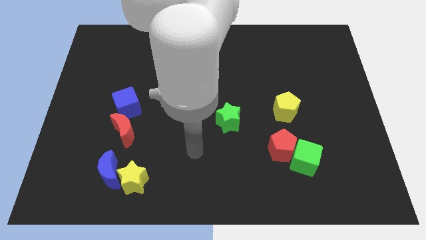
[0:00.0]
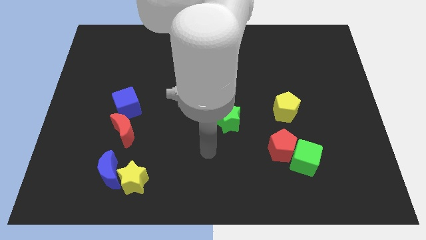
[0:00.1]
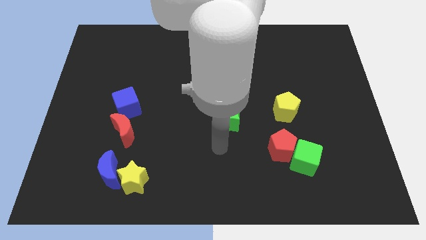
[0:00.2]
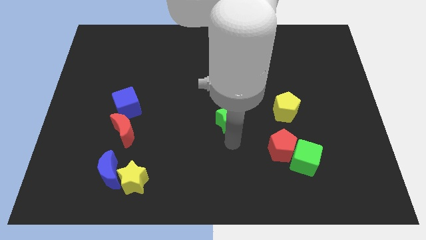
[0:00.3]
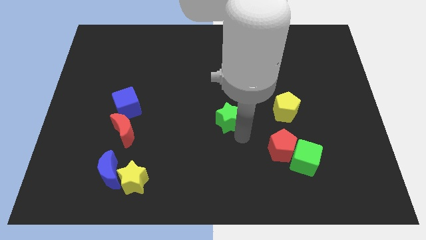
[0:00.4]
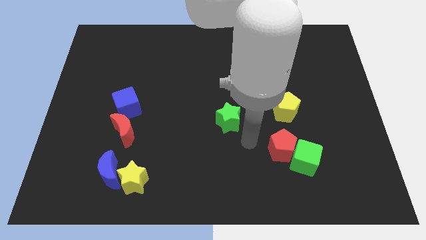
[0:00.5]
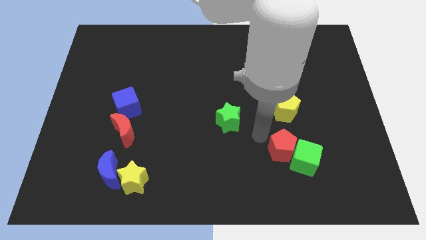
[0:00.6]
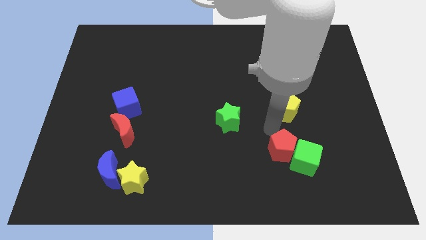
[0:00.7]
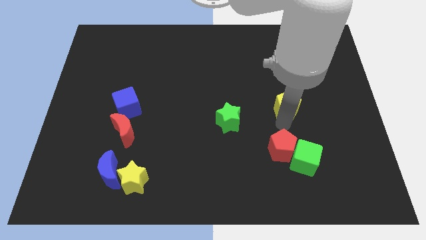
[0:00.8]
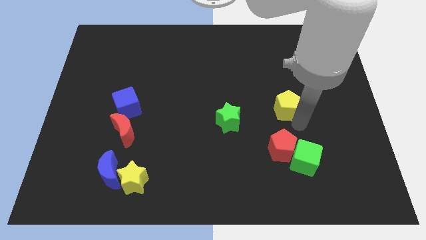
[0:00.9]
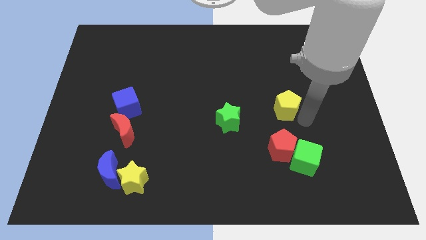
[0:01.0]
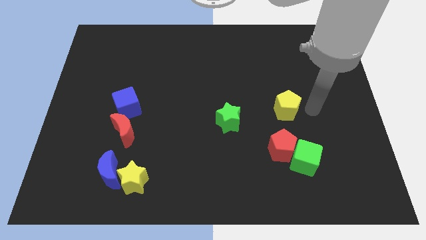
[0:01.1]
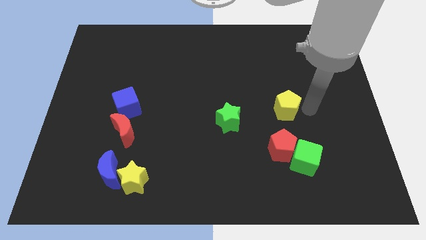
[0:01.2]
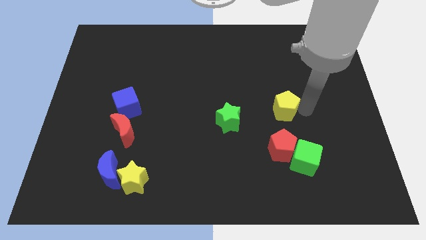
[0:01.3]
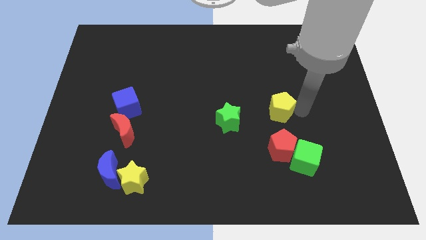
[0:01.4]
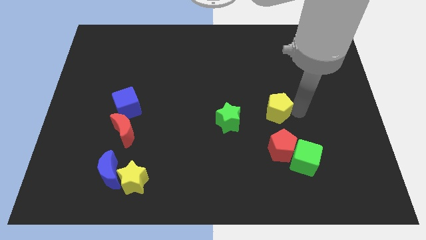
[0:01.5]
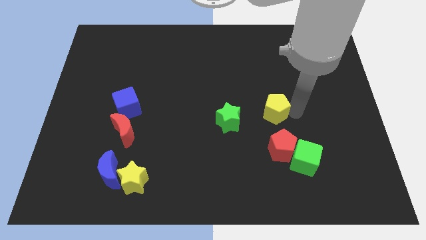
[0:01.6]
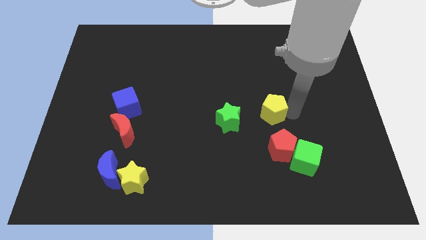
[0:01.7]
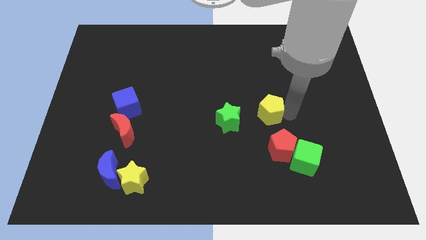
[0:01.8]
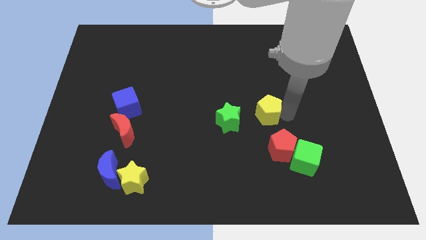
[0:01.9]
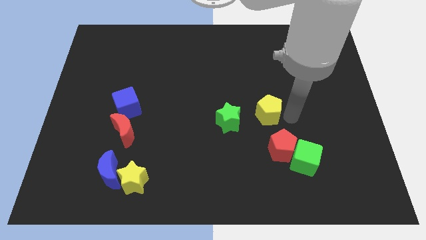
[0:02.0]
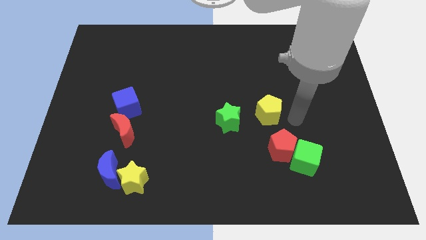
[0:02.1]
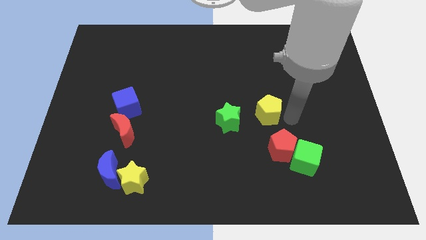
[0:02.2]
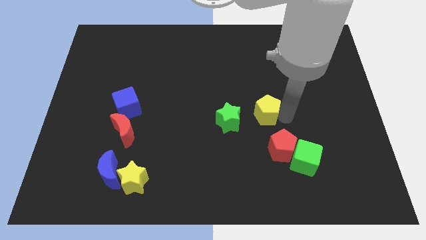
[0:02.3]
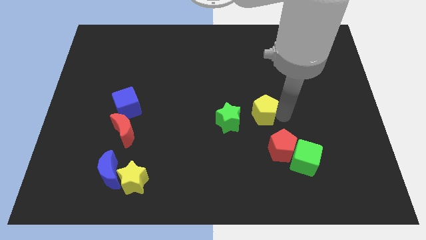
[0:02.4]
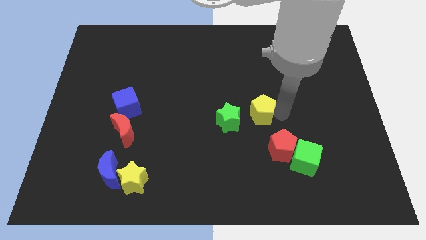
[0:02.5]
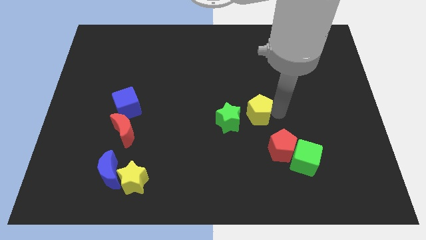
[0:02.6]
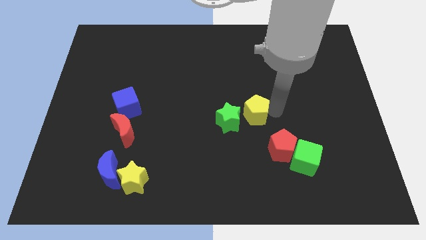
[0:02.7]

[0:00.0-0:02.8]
push the yellow pentagon a little bit to the left

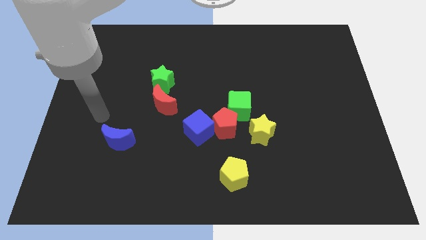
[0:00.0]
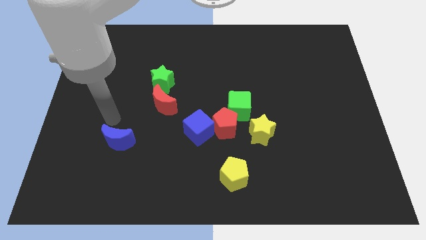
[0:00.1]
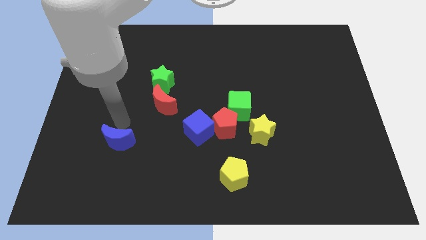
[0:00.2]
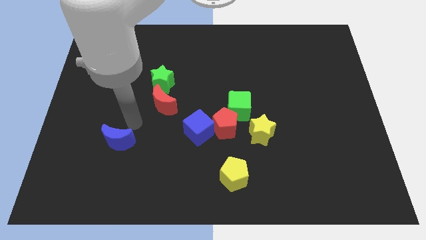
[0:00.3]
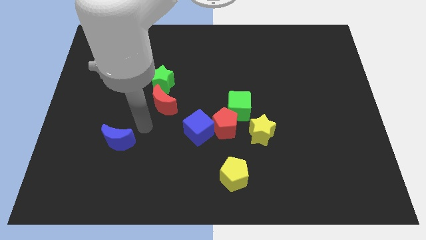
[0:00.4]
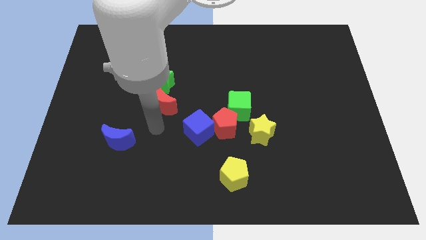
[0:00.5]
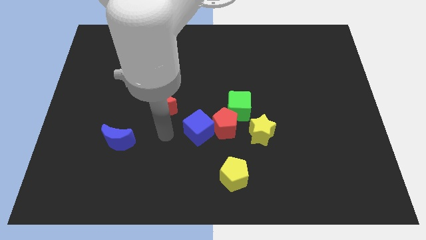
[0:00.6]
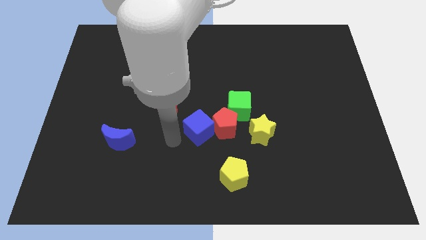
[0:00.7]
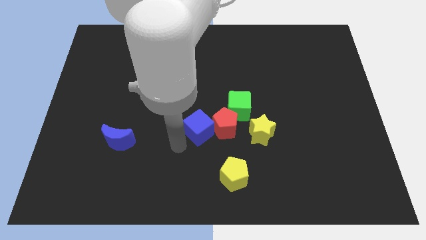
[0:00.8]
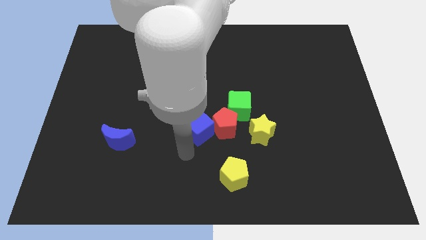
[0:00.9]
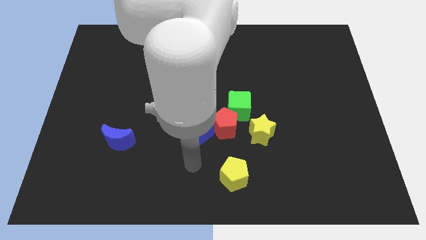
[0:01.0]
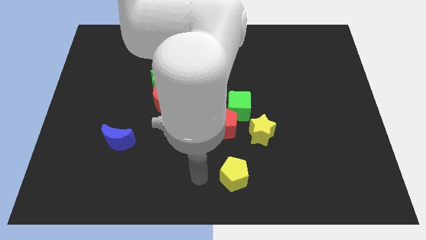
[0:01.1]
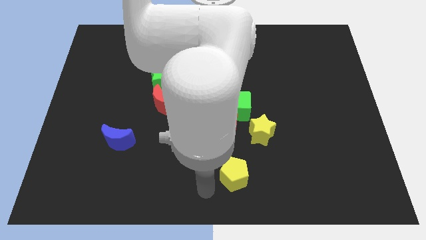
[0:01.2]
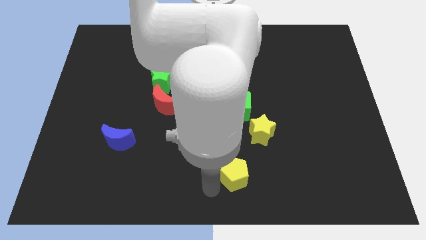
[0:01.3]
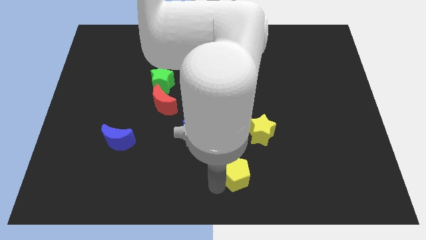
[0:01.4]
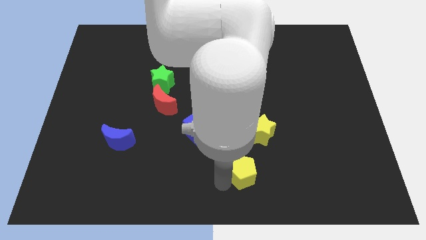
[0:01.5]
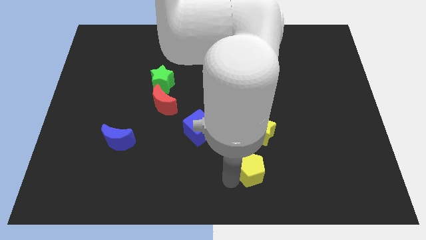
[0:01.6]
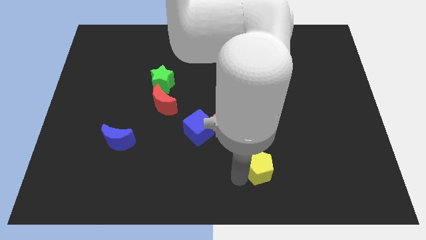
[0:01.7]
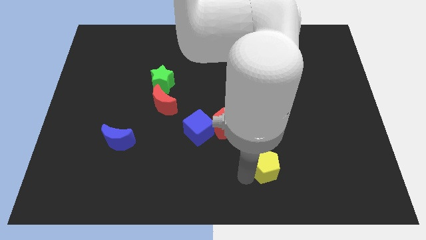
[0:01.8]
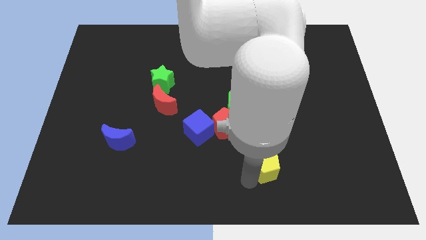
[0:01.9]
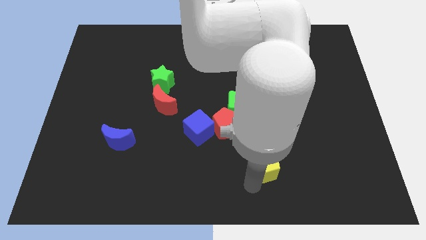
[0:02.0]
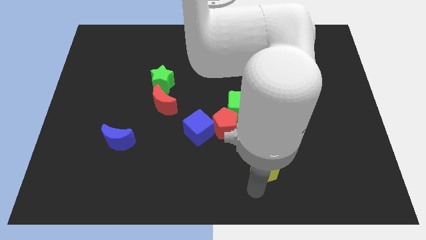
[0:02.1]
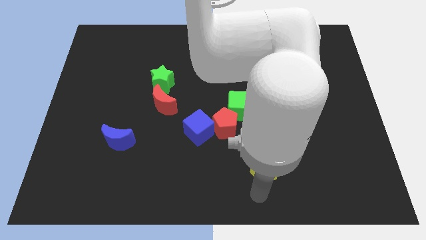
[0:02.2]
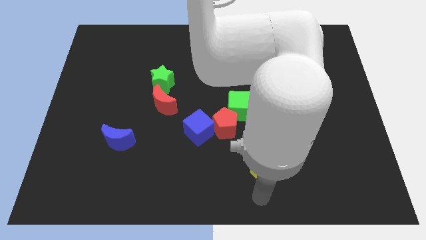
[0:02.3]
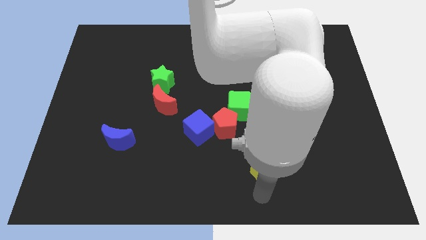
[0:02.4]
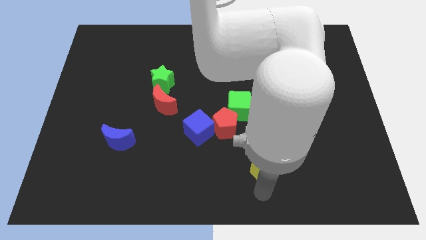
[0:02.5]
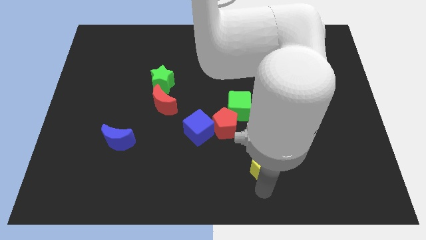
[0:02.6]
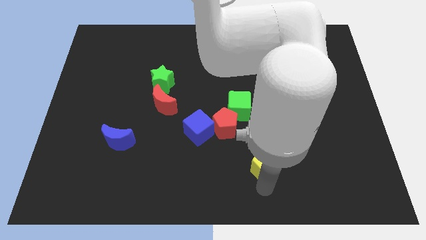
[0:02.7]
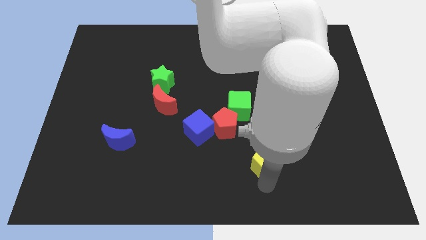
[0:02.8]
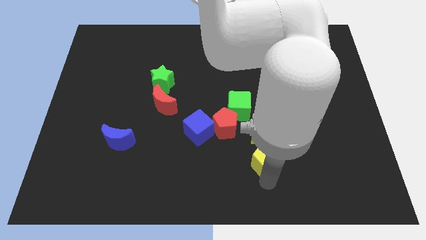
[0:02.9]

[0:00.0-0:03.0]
push the yellow pentagon somewhat up and to the right

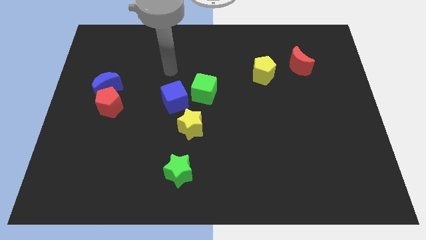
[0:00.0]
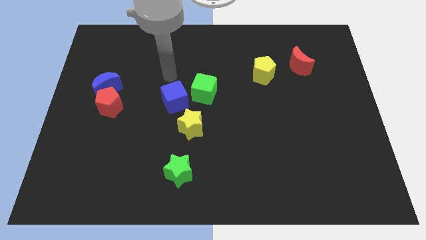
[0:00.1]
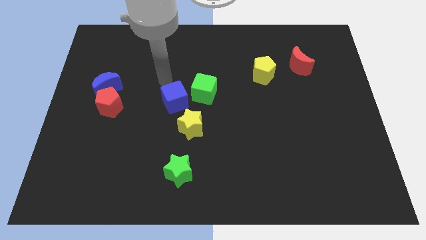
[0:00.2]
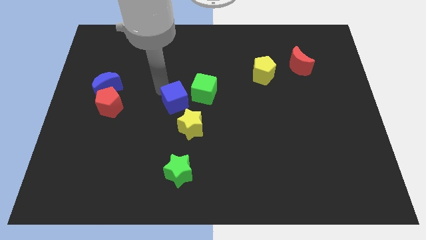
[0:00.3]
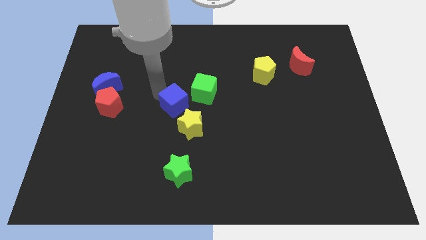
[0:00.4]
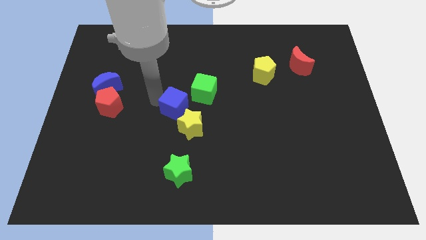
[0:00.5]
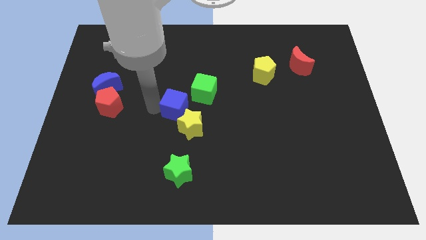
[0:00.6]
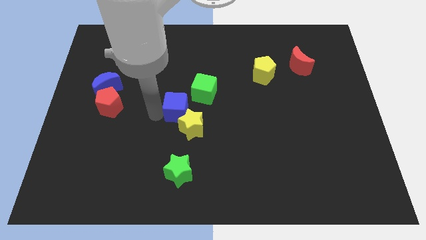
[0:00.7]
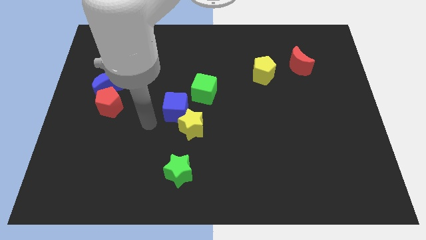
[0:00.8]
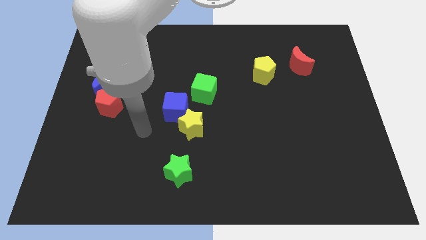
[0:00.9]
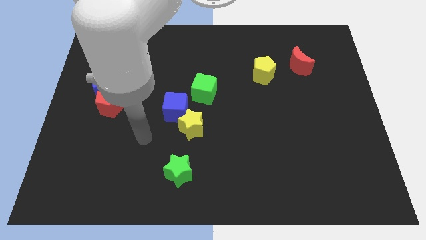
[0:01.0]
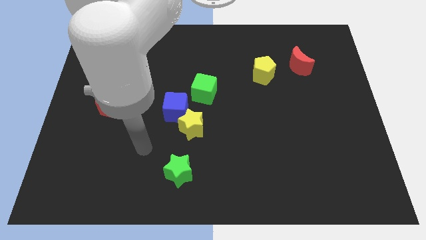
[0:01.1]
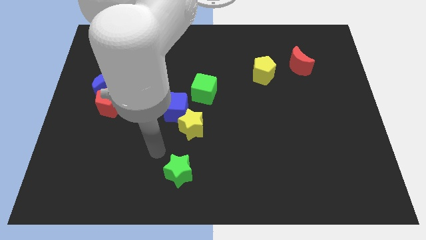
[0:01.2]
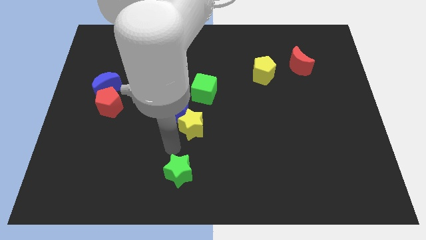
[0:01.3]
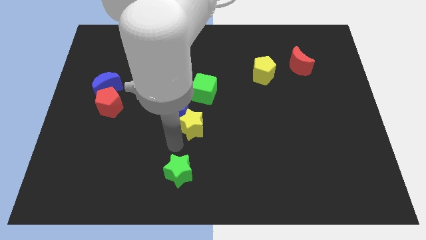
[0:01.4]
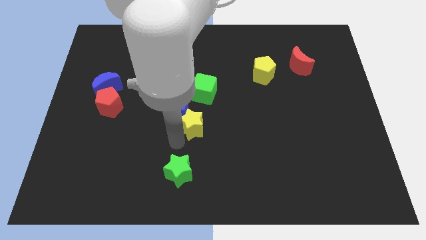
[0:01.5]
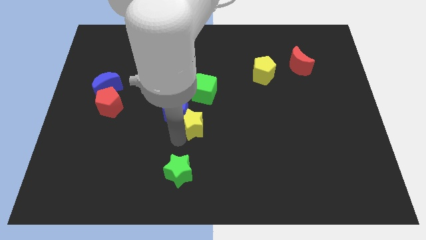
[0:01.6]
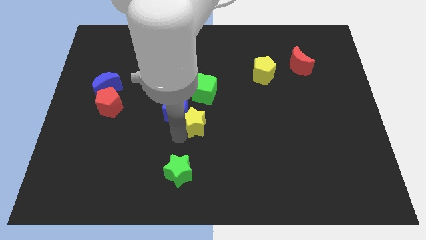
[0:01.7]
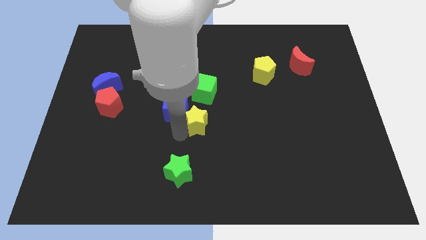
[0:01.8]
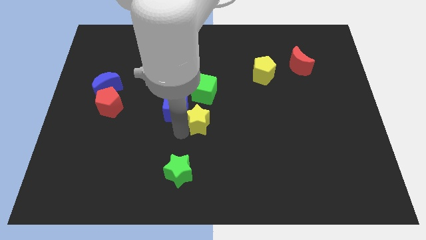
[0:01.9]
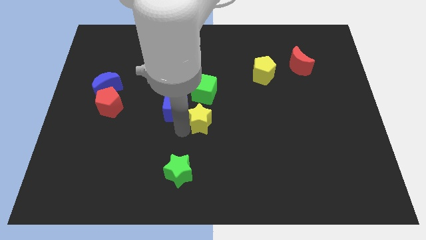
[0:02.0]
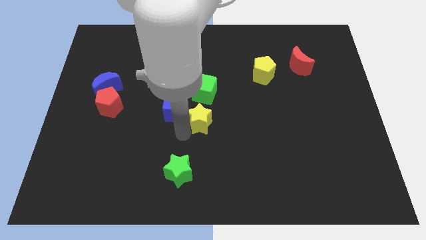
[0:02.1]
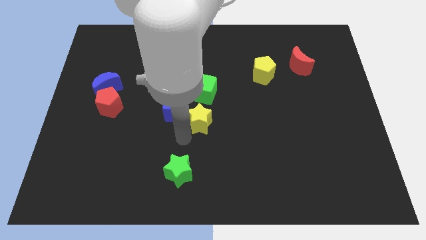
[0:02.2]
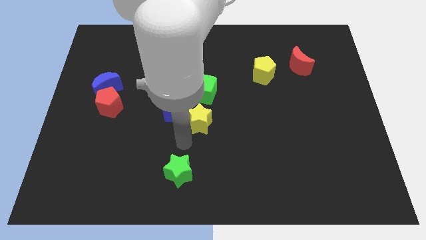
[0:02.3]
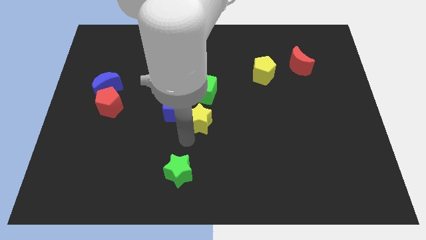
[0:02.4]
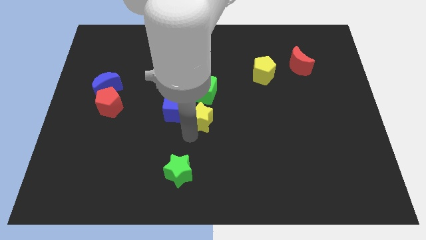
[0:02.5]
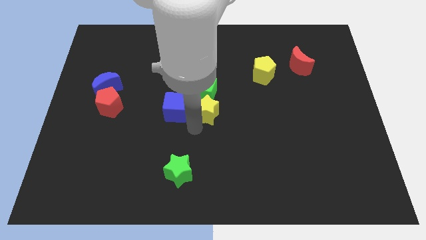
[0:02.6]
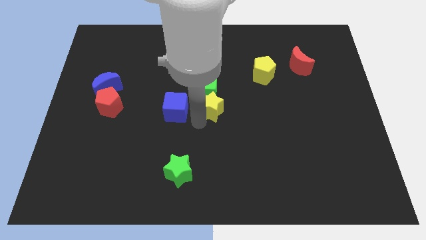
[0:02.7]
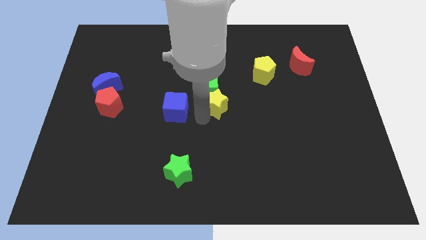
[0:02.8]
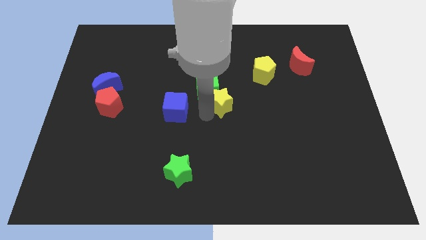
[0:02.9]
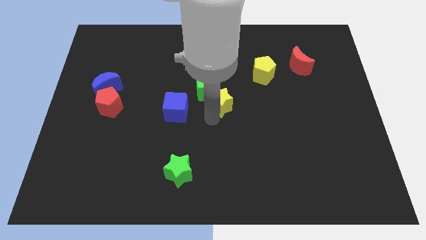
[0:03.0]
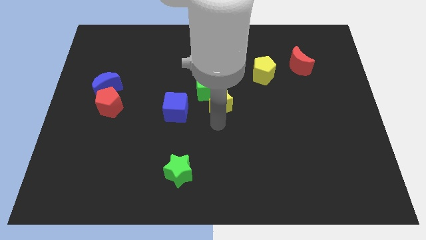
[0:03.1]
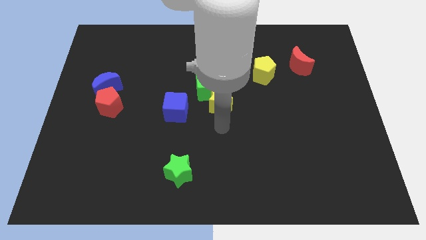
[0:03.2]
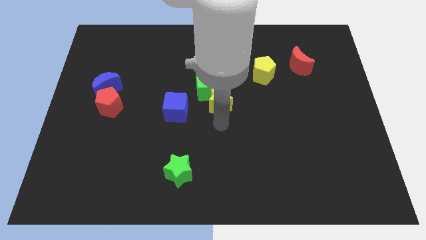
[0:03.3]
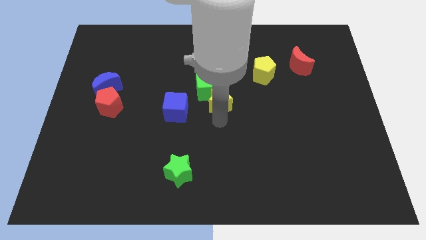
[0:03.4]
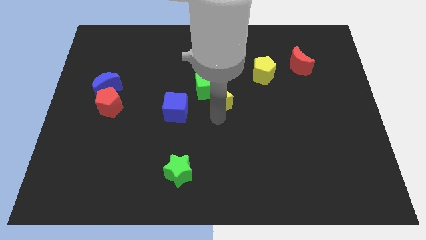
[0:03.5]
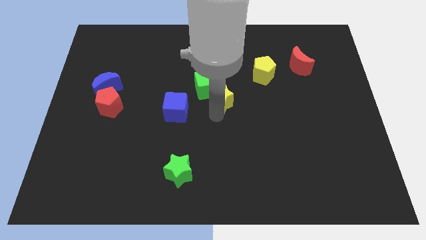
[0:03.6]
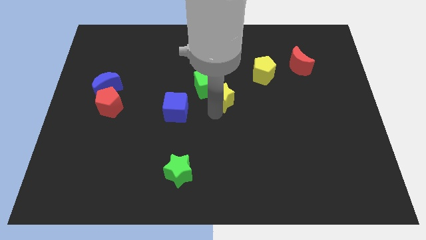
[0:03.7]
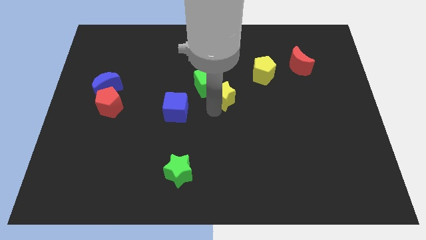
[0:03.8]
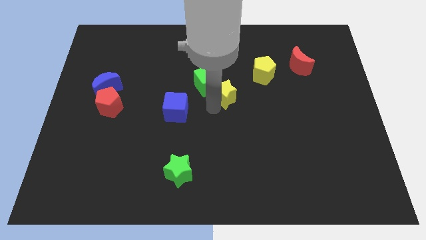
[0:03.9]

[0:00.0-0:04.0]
move the yellow star a little up
